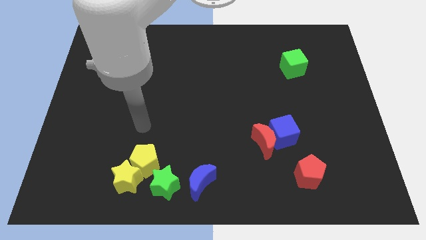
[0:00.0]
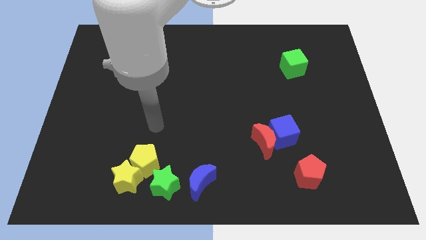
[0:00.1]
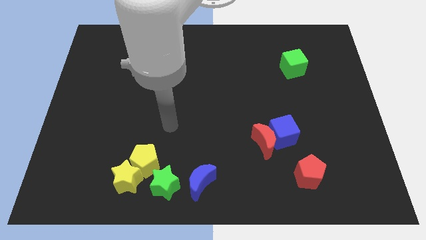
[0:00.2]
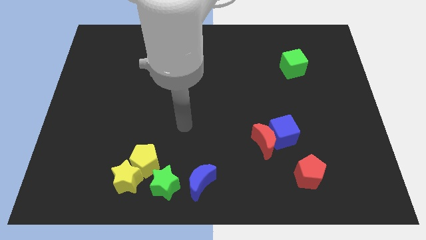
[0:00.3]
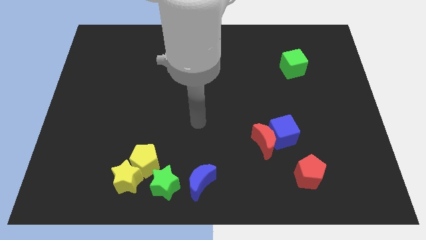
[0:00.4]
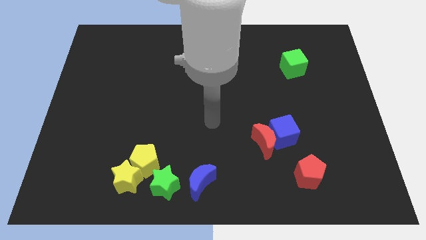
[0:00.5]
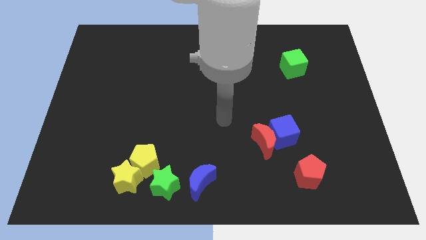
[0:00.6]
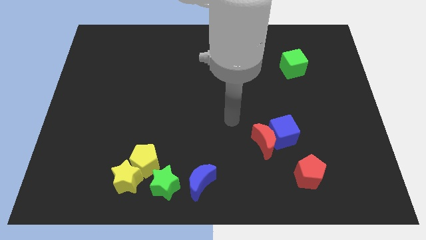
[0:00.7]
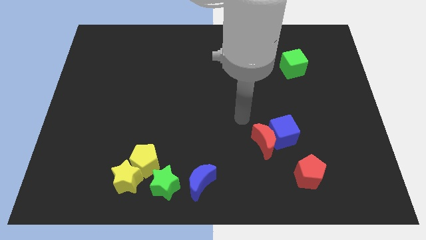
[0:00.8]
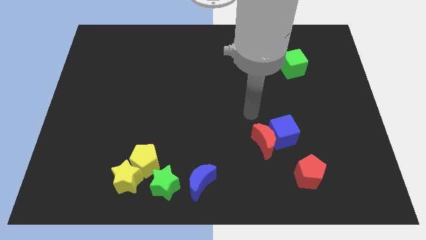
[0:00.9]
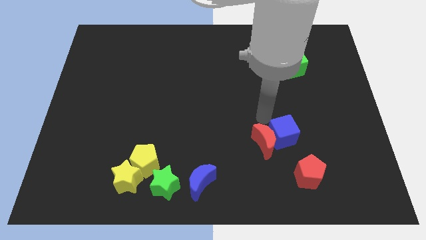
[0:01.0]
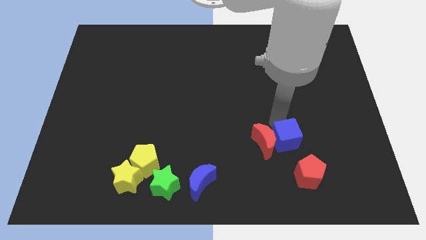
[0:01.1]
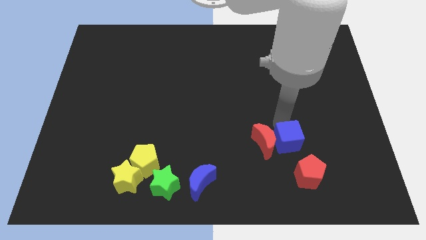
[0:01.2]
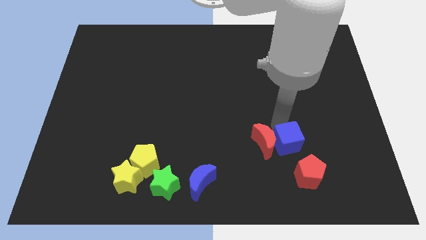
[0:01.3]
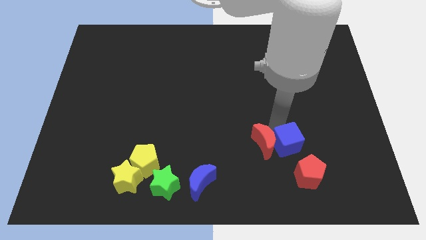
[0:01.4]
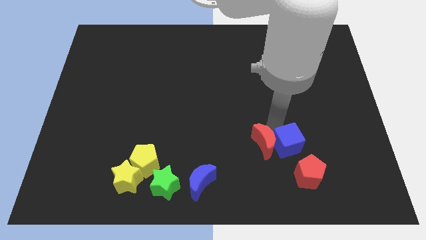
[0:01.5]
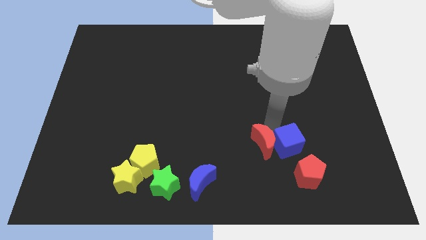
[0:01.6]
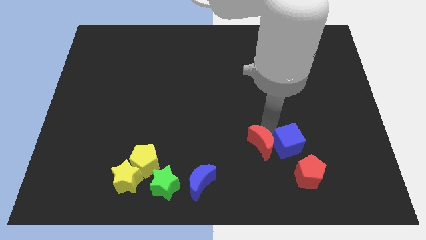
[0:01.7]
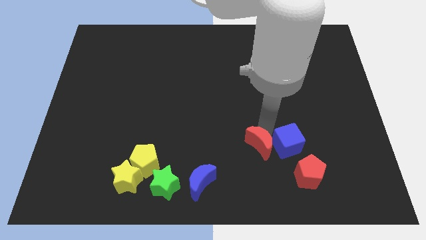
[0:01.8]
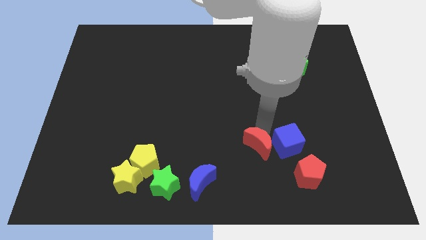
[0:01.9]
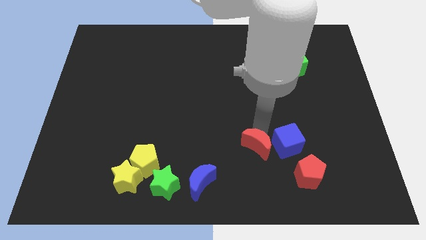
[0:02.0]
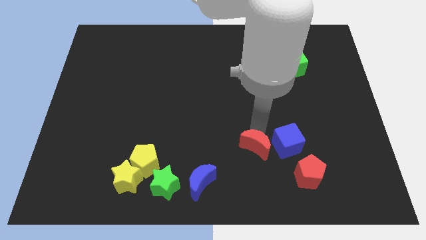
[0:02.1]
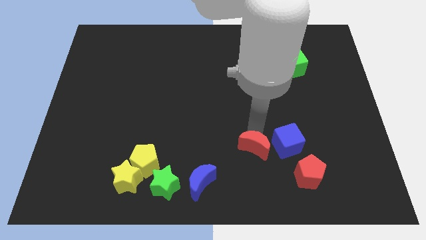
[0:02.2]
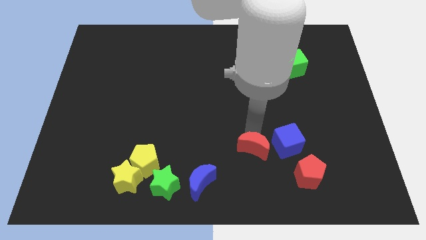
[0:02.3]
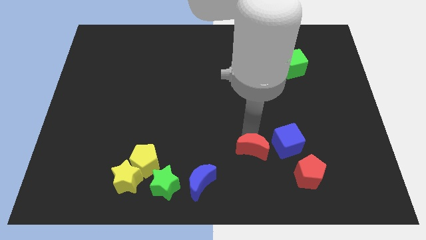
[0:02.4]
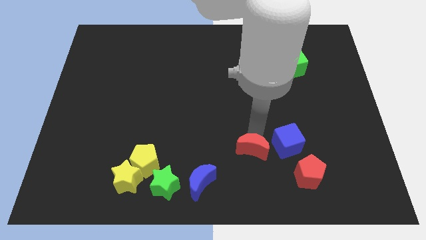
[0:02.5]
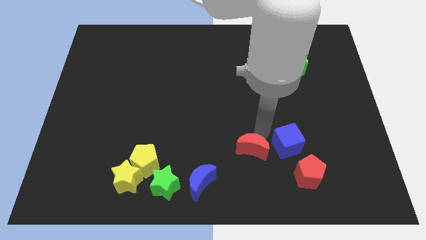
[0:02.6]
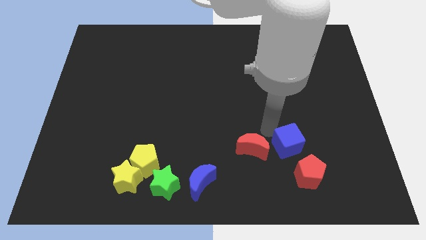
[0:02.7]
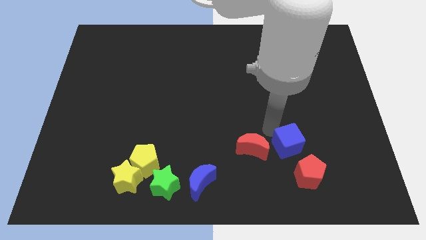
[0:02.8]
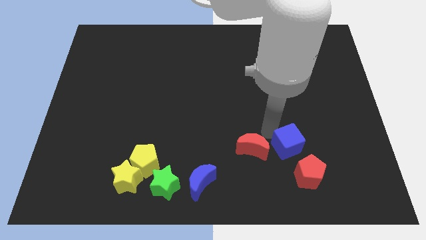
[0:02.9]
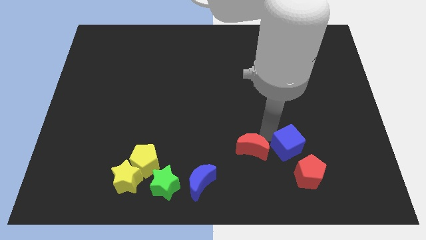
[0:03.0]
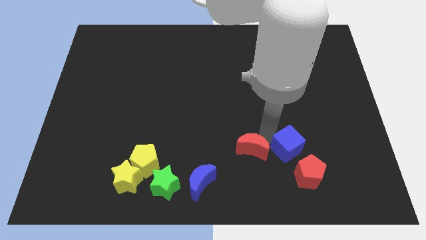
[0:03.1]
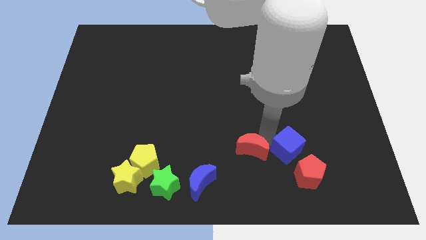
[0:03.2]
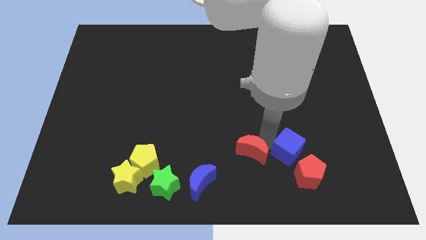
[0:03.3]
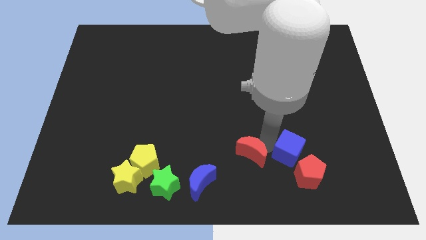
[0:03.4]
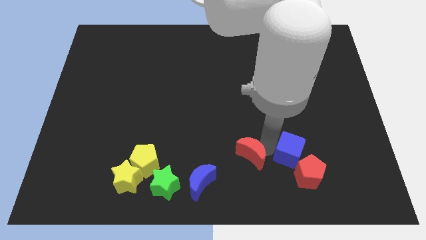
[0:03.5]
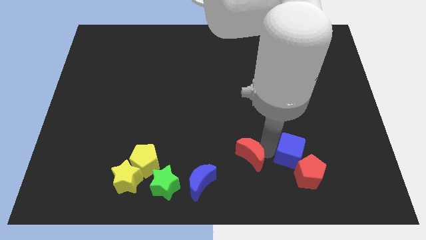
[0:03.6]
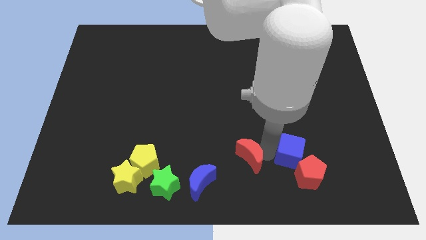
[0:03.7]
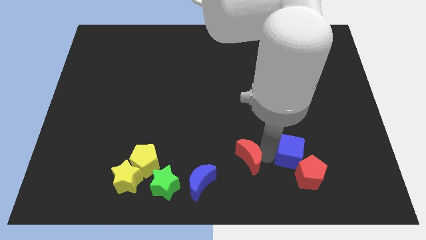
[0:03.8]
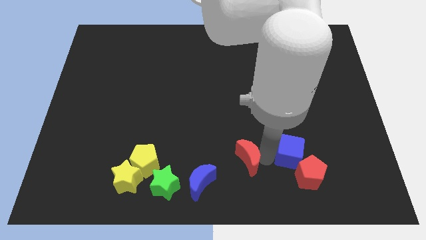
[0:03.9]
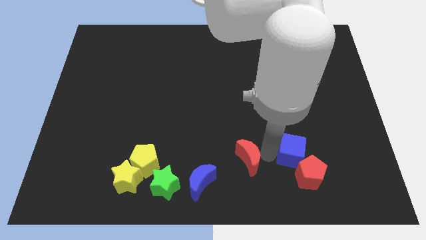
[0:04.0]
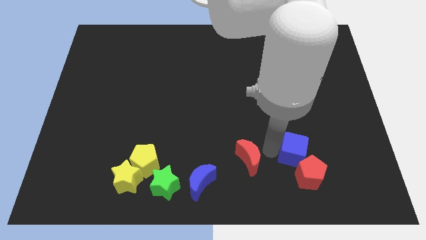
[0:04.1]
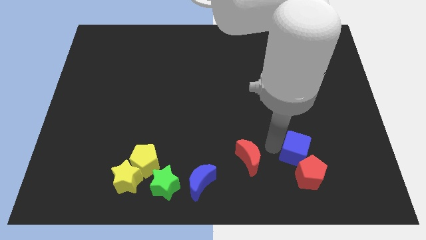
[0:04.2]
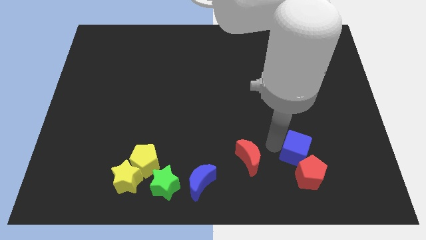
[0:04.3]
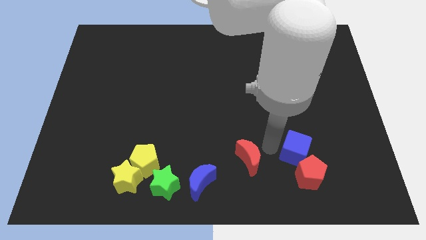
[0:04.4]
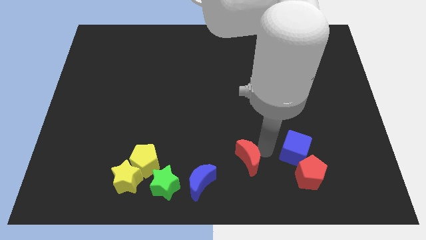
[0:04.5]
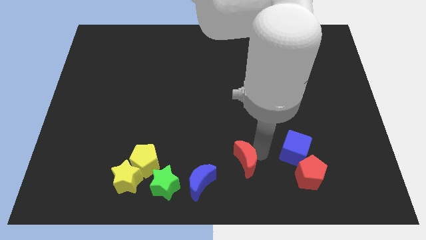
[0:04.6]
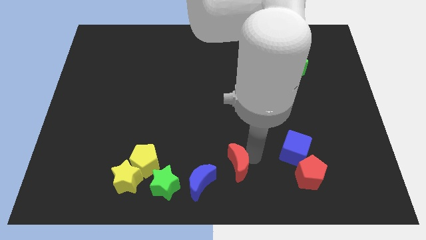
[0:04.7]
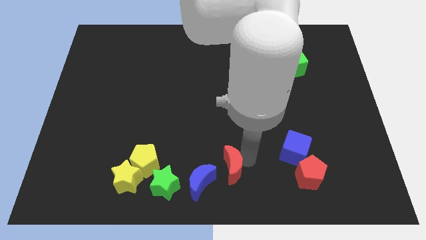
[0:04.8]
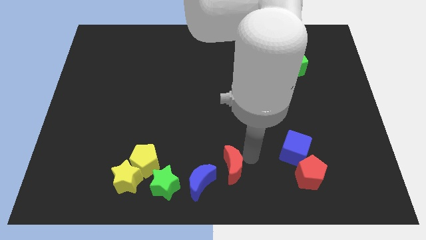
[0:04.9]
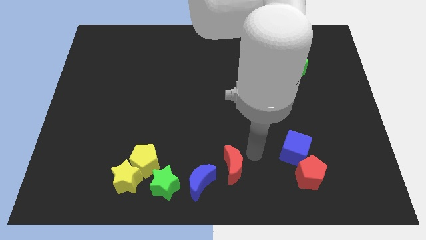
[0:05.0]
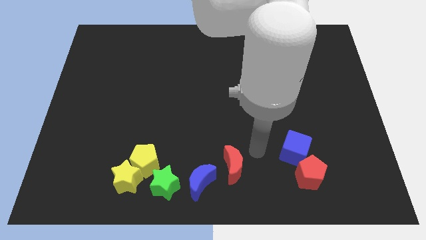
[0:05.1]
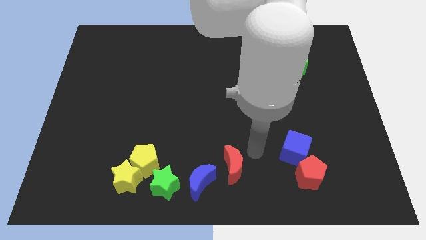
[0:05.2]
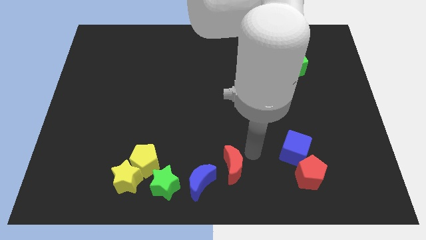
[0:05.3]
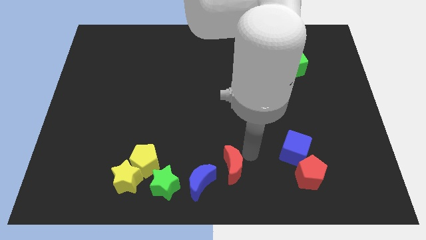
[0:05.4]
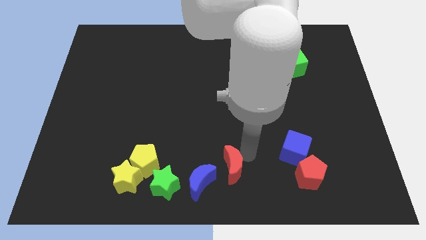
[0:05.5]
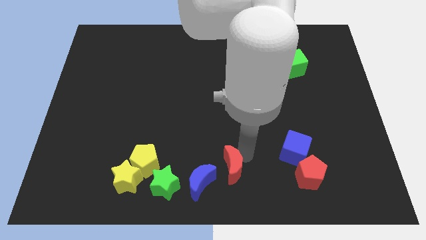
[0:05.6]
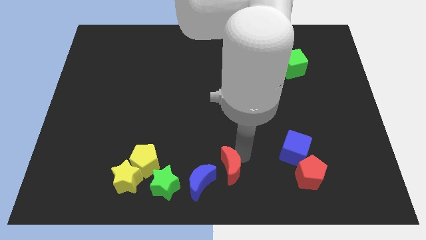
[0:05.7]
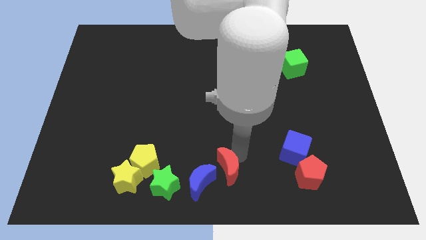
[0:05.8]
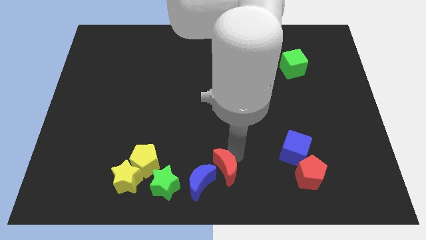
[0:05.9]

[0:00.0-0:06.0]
slide the red moon close to the blue moon

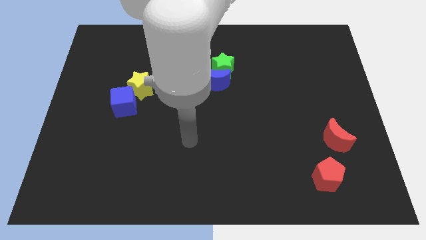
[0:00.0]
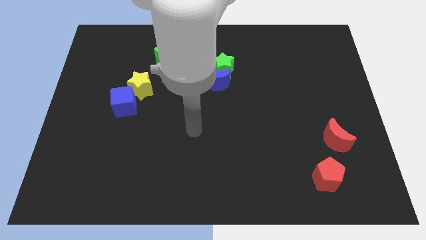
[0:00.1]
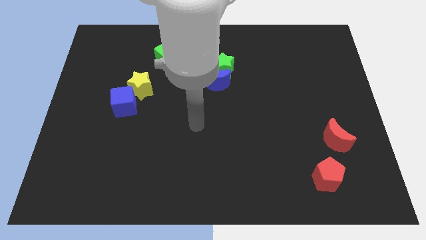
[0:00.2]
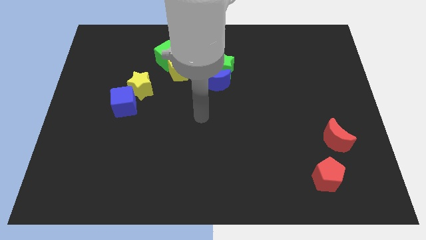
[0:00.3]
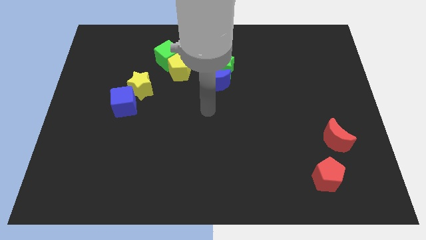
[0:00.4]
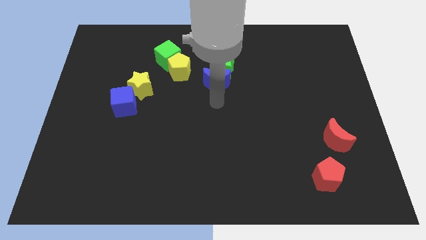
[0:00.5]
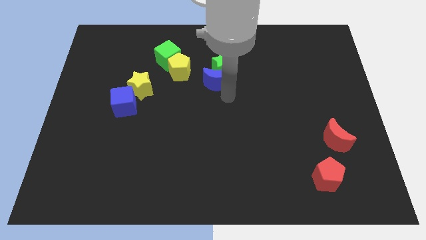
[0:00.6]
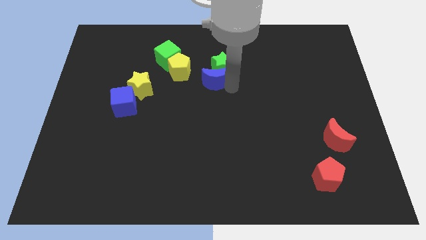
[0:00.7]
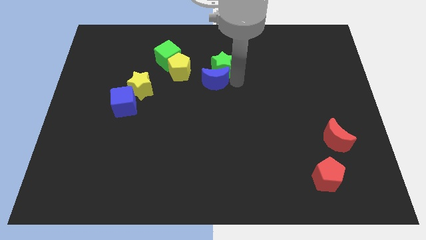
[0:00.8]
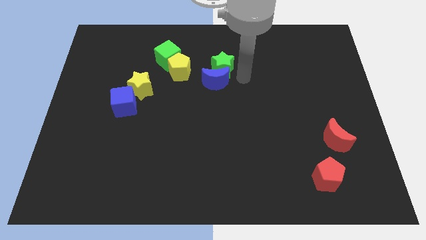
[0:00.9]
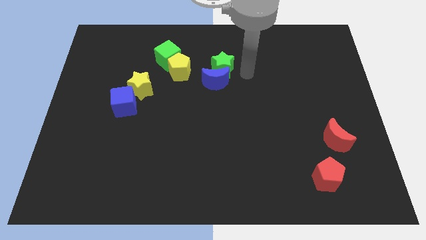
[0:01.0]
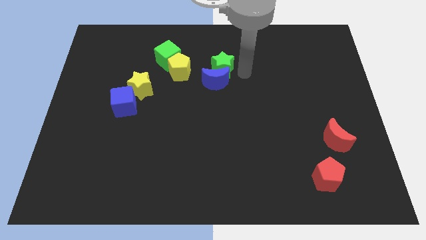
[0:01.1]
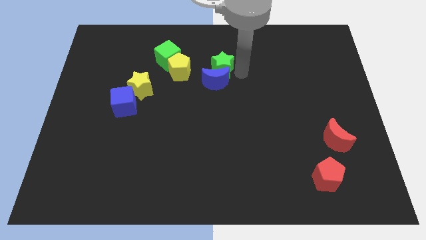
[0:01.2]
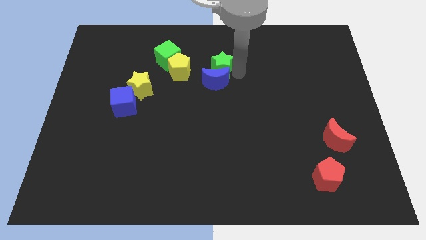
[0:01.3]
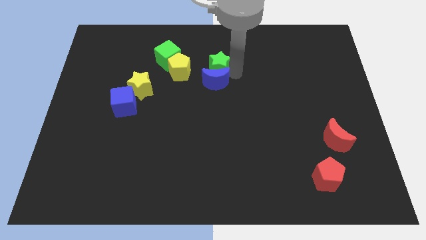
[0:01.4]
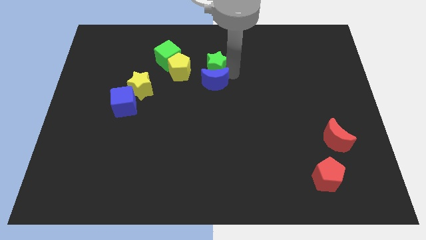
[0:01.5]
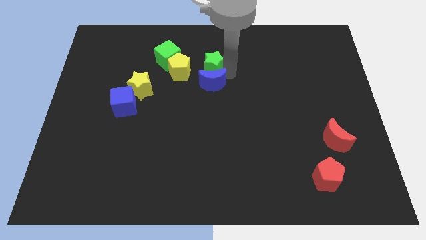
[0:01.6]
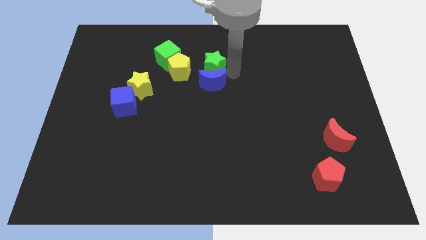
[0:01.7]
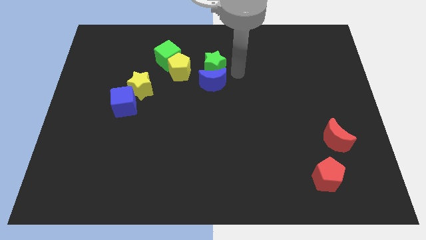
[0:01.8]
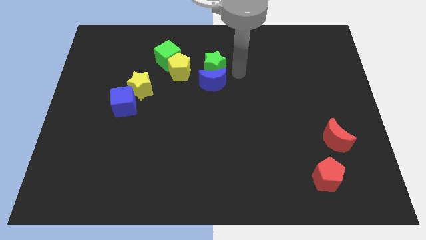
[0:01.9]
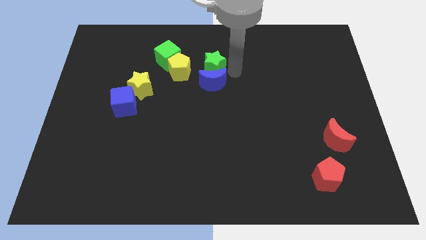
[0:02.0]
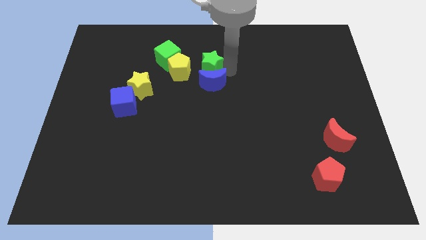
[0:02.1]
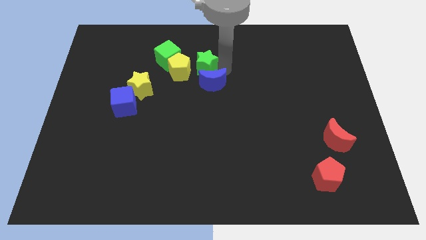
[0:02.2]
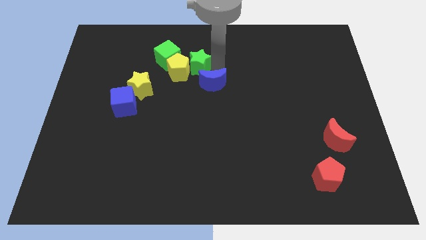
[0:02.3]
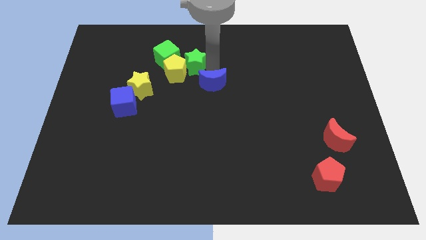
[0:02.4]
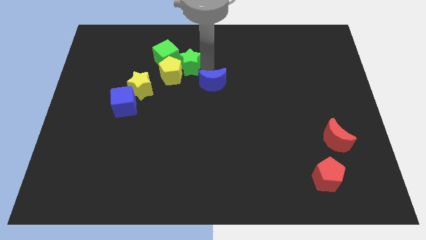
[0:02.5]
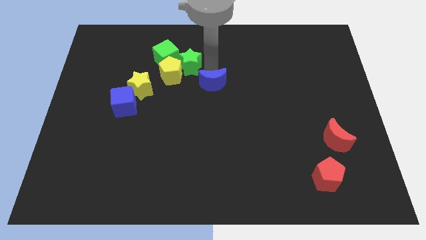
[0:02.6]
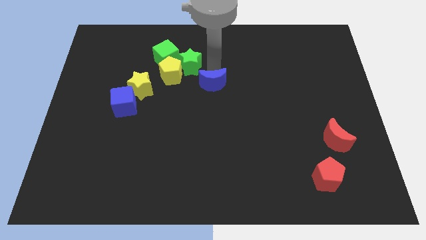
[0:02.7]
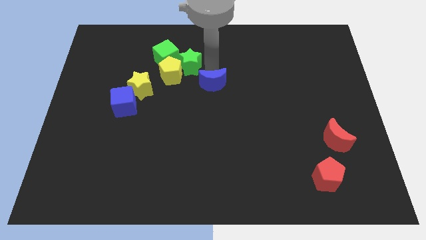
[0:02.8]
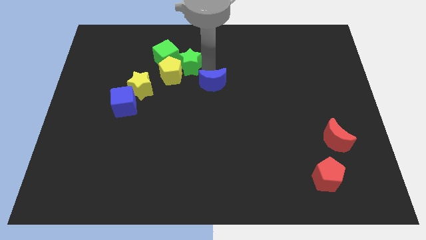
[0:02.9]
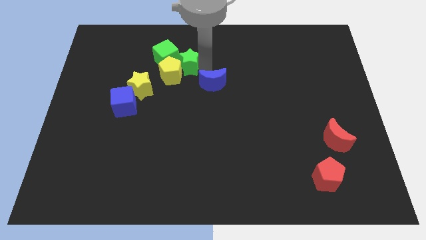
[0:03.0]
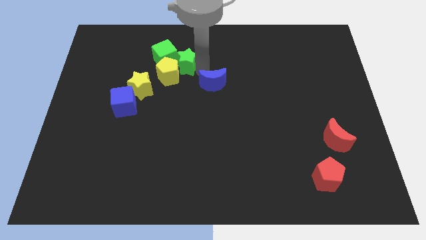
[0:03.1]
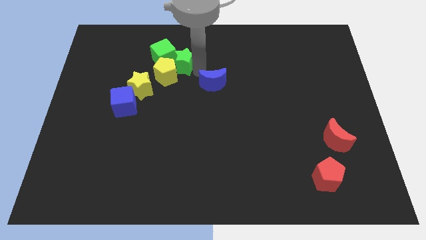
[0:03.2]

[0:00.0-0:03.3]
slide the green star next to the green cube
